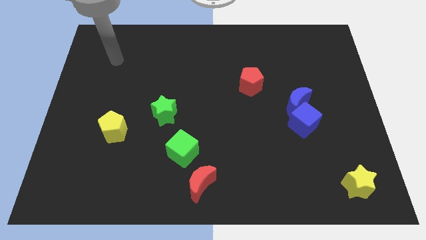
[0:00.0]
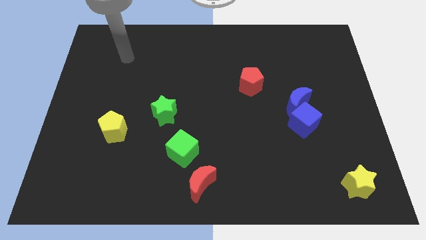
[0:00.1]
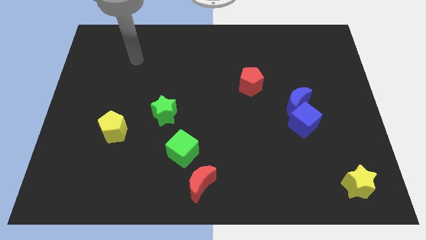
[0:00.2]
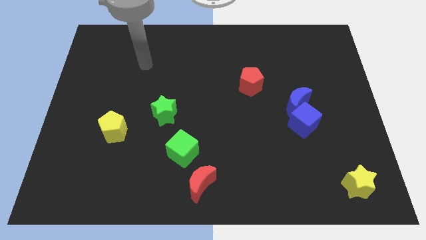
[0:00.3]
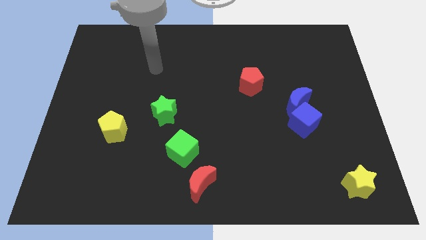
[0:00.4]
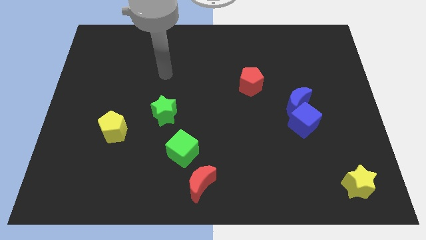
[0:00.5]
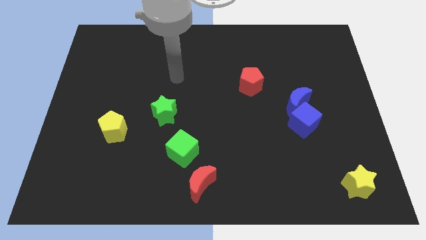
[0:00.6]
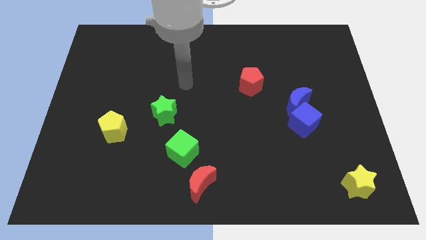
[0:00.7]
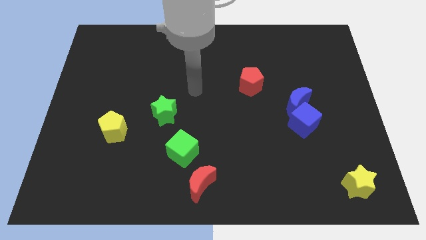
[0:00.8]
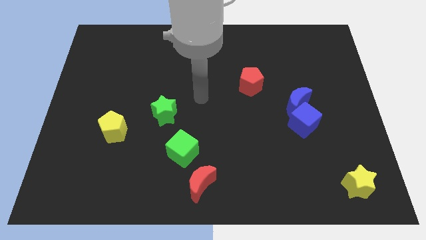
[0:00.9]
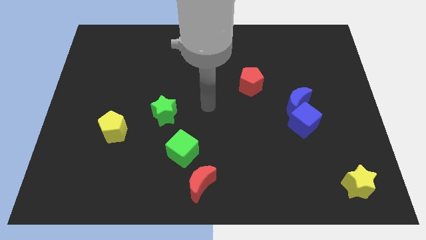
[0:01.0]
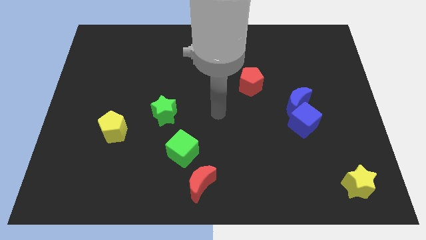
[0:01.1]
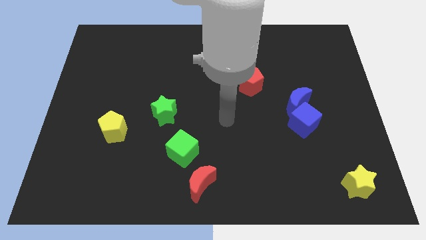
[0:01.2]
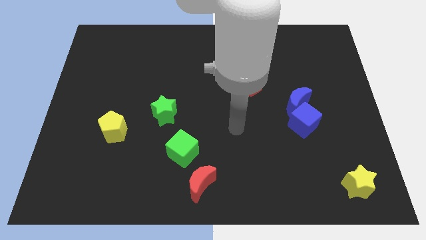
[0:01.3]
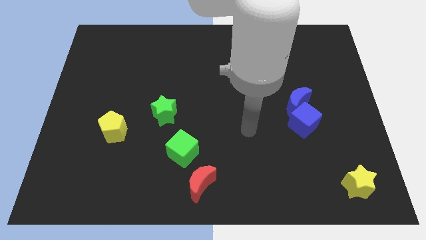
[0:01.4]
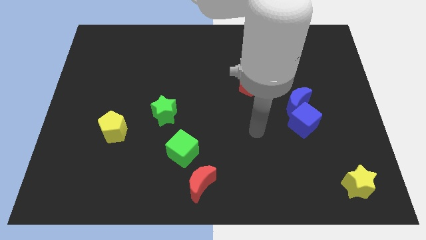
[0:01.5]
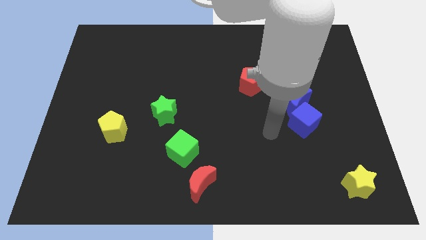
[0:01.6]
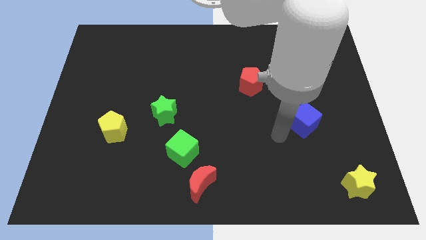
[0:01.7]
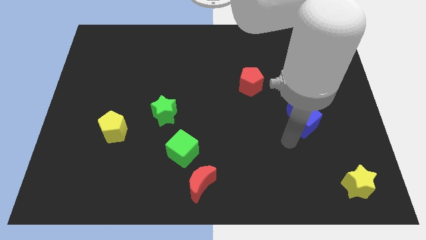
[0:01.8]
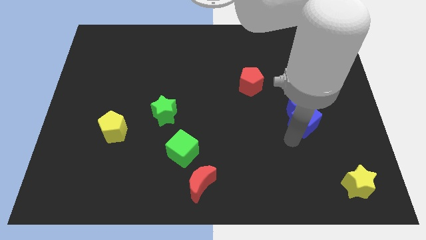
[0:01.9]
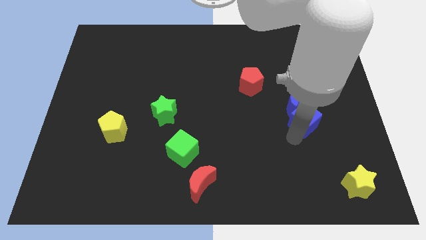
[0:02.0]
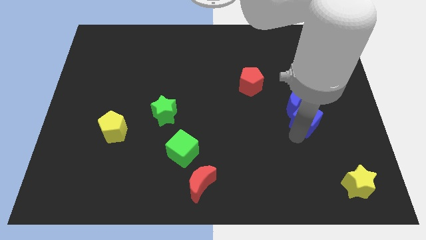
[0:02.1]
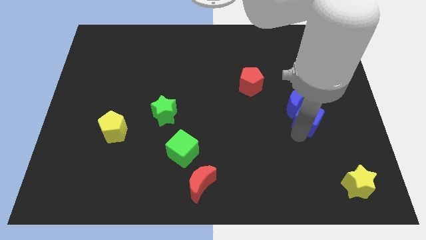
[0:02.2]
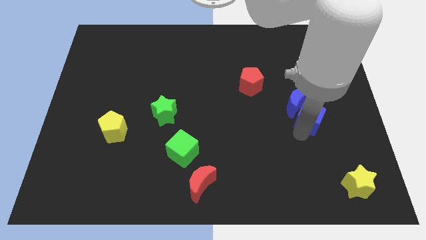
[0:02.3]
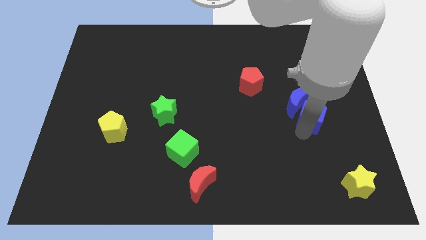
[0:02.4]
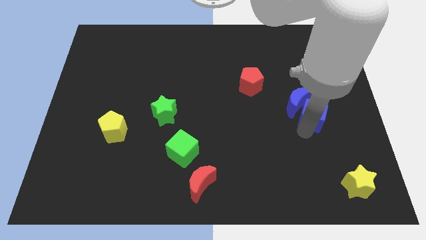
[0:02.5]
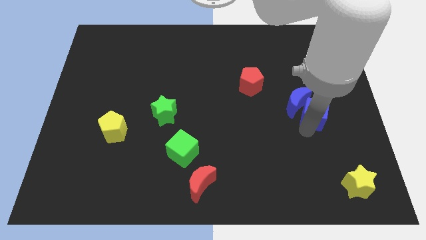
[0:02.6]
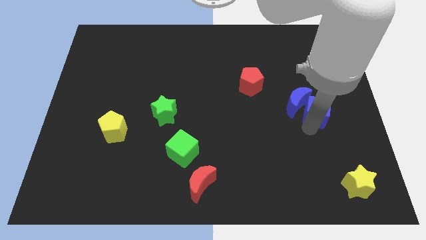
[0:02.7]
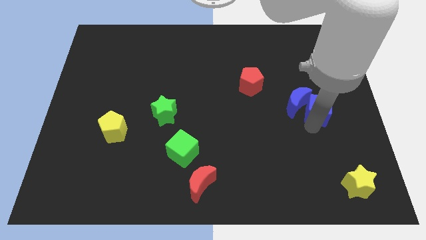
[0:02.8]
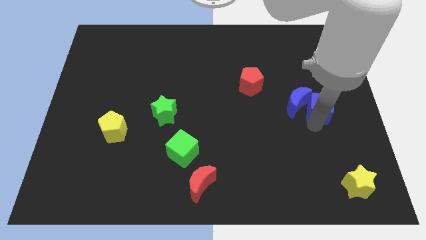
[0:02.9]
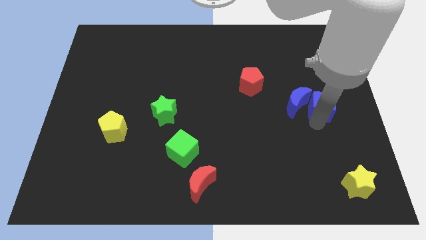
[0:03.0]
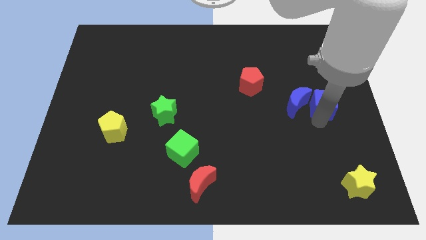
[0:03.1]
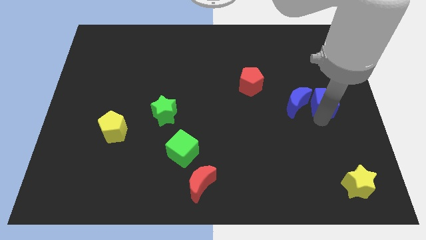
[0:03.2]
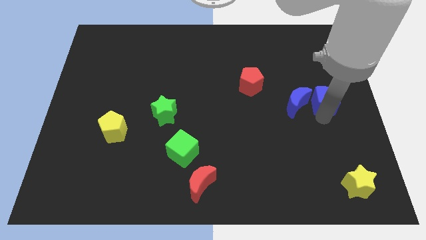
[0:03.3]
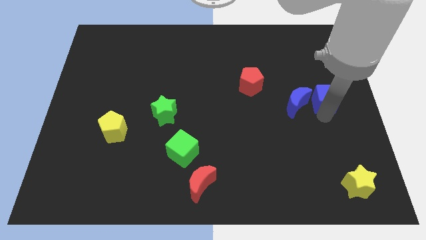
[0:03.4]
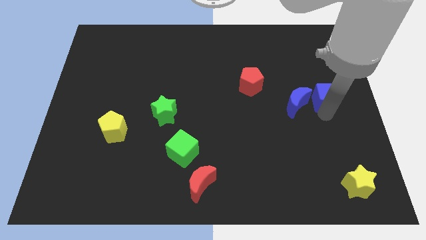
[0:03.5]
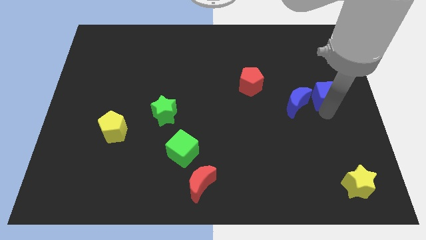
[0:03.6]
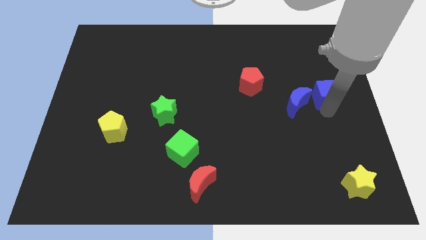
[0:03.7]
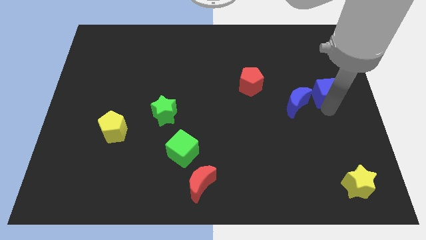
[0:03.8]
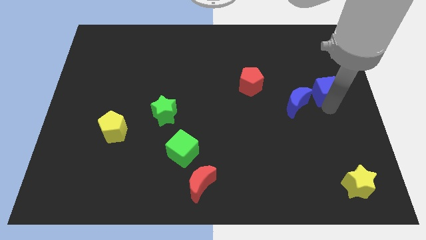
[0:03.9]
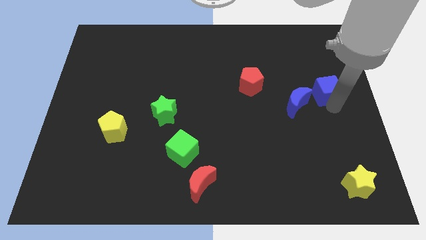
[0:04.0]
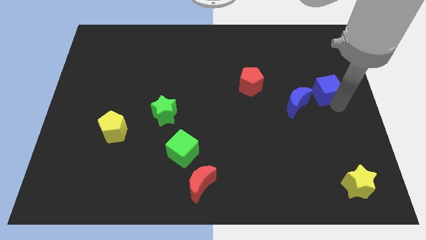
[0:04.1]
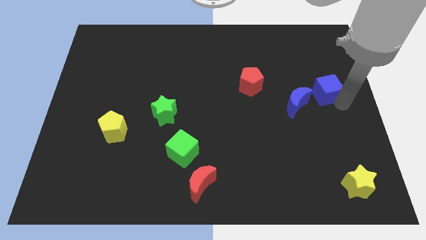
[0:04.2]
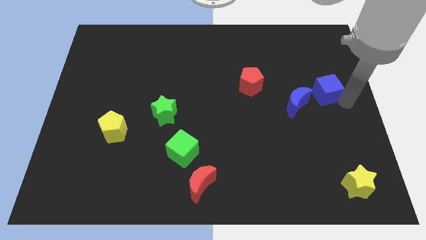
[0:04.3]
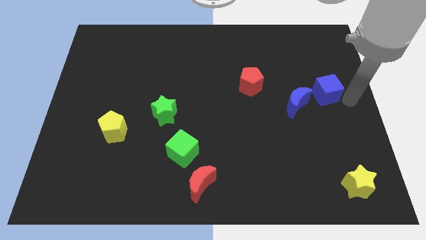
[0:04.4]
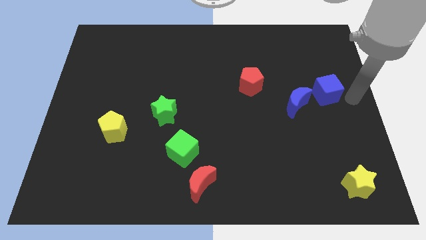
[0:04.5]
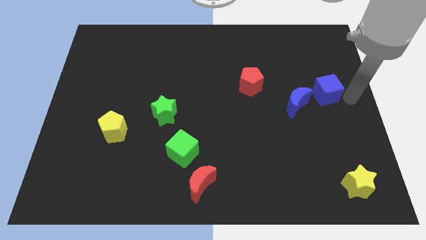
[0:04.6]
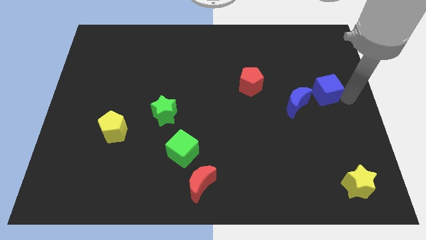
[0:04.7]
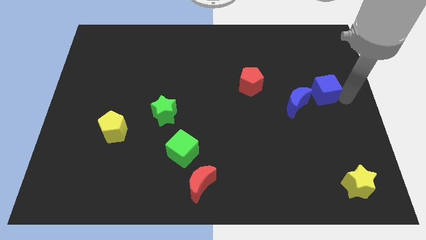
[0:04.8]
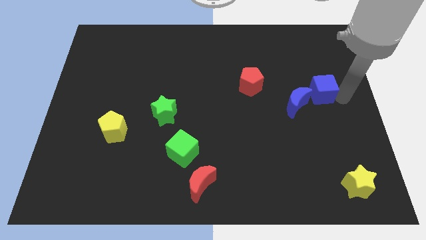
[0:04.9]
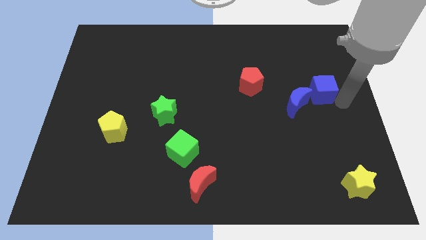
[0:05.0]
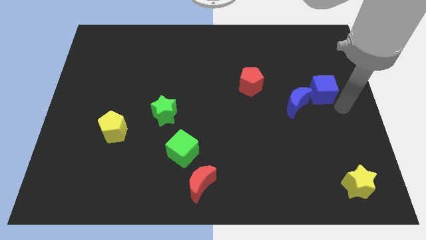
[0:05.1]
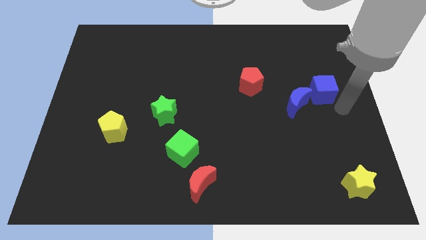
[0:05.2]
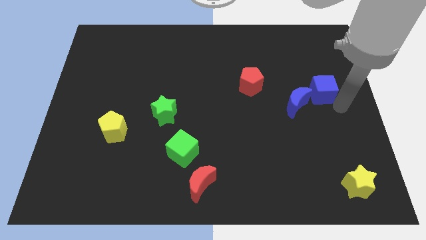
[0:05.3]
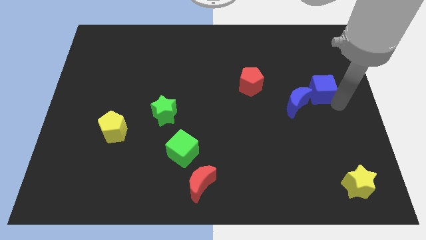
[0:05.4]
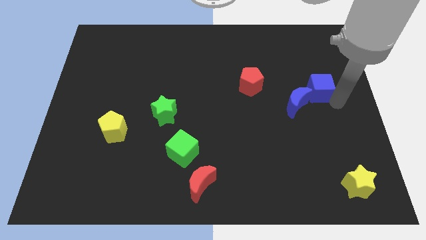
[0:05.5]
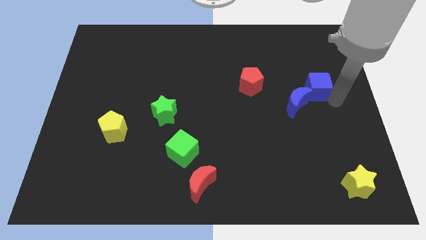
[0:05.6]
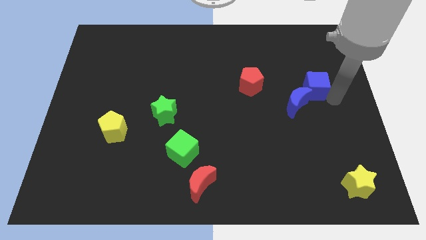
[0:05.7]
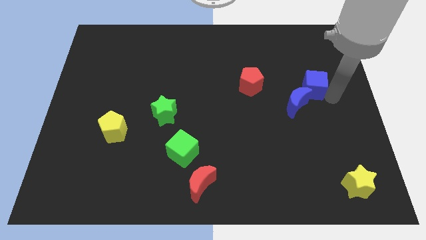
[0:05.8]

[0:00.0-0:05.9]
push the blue cube above the blue moon
